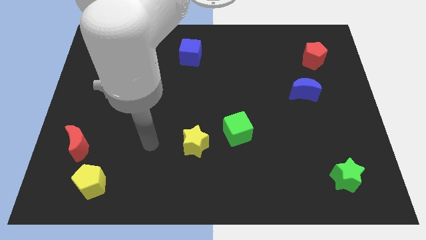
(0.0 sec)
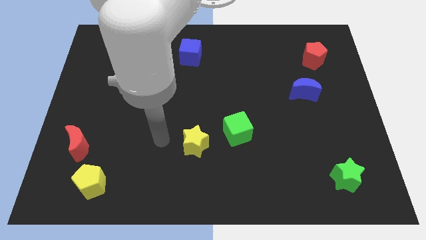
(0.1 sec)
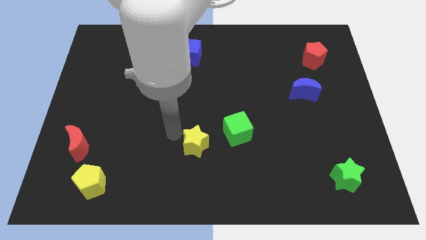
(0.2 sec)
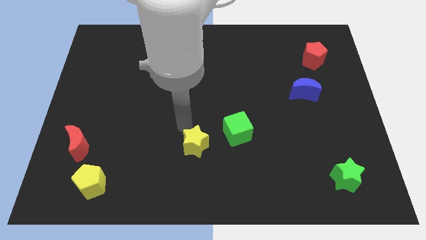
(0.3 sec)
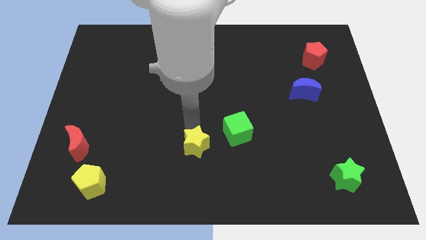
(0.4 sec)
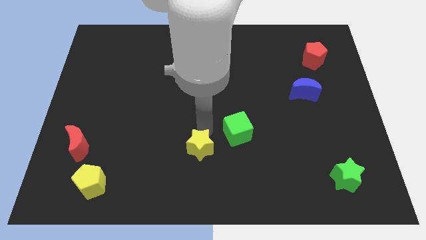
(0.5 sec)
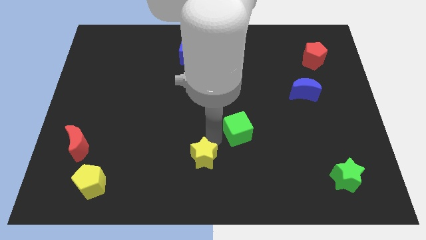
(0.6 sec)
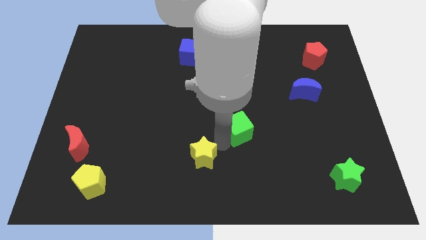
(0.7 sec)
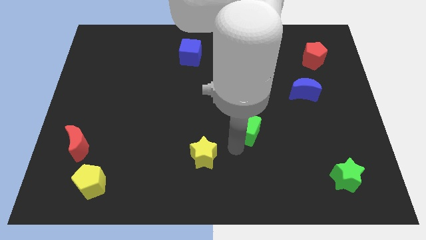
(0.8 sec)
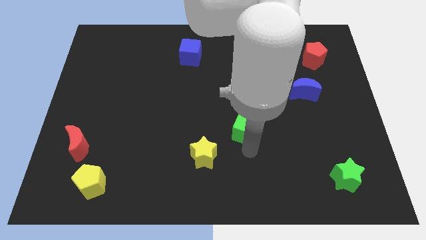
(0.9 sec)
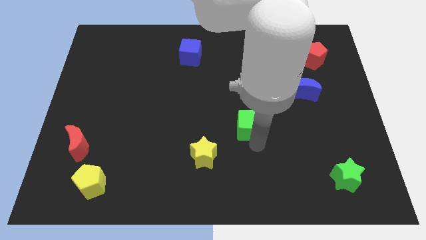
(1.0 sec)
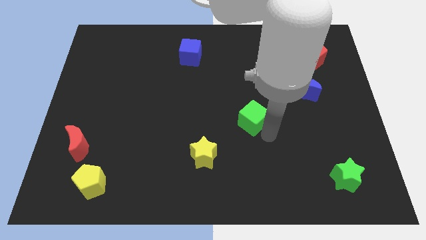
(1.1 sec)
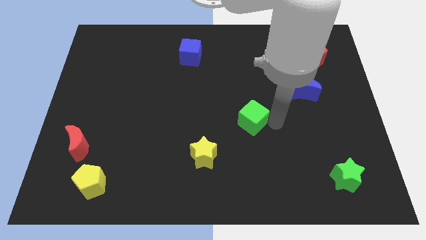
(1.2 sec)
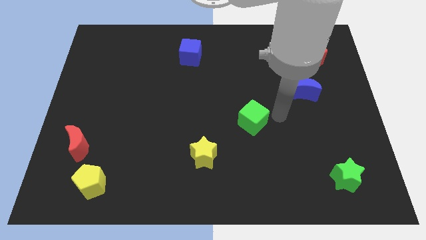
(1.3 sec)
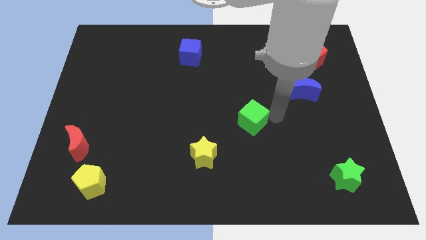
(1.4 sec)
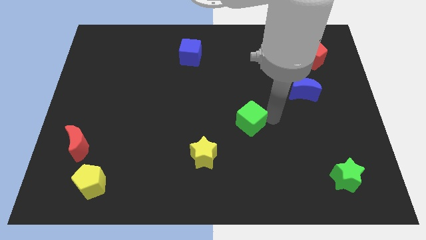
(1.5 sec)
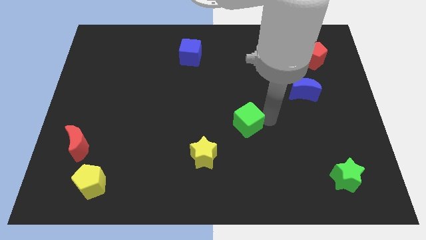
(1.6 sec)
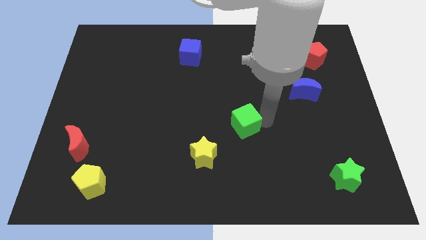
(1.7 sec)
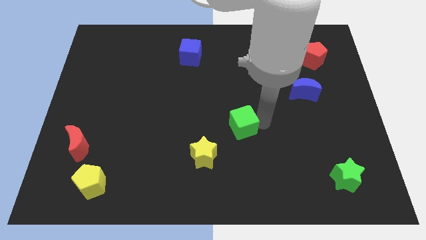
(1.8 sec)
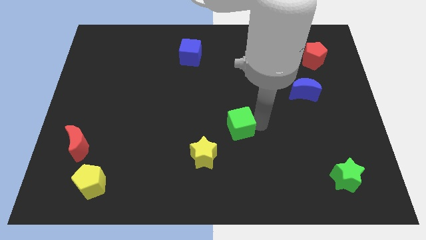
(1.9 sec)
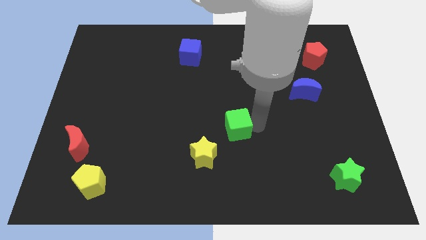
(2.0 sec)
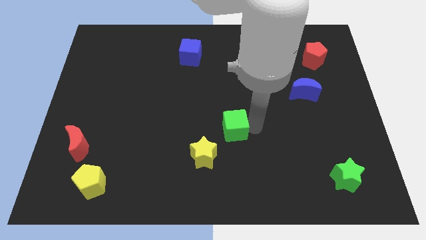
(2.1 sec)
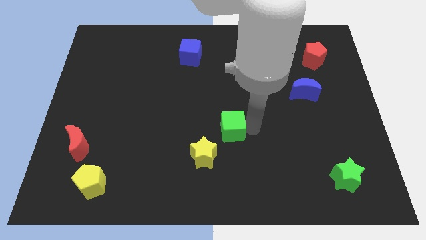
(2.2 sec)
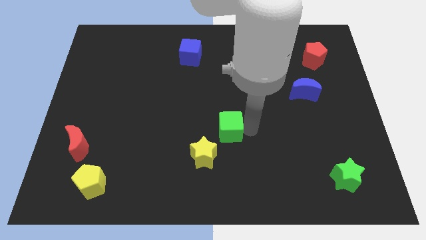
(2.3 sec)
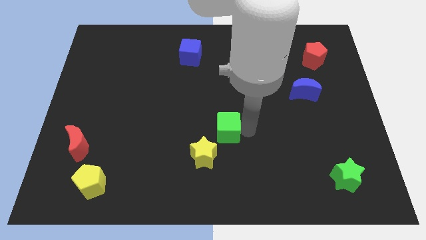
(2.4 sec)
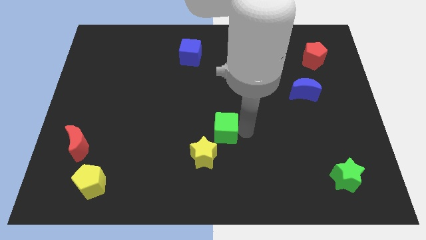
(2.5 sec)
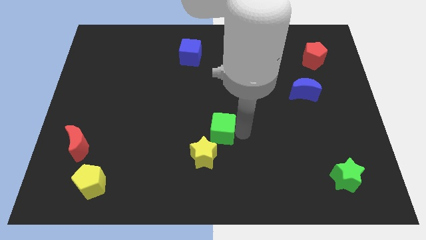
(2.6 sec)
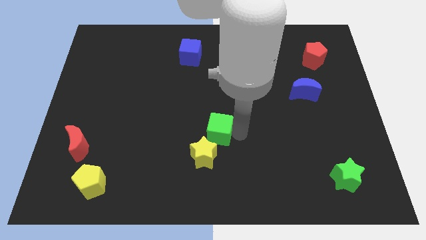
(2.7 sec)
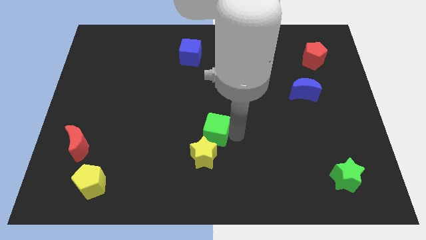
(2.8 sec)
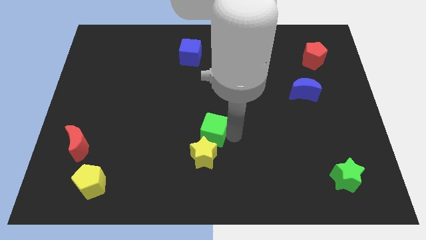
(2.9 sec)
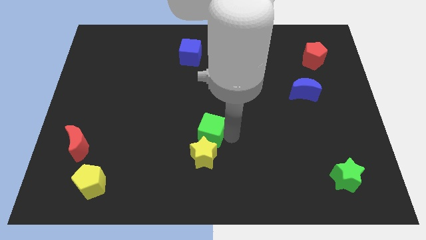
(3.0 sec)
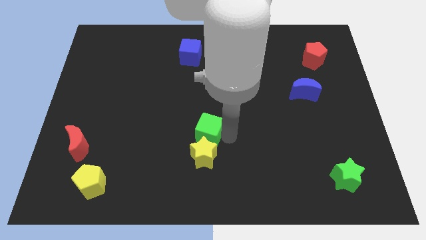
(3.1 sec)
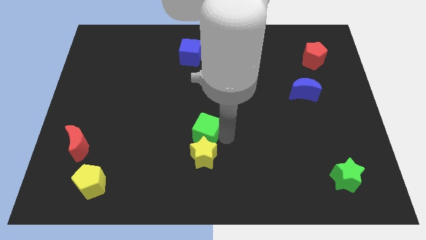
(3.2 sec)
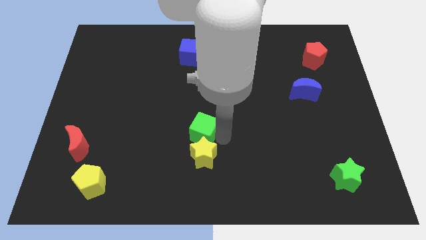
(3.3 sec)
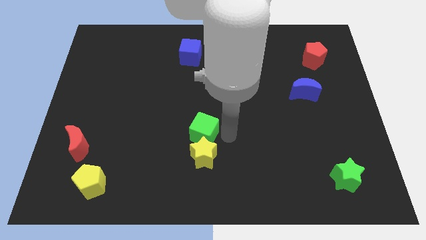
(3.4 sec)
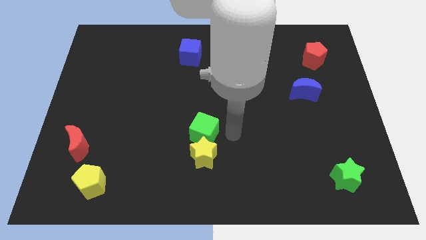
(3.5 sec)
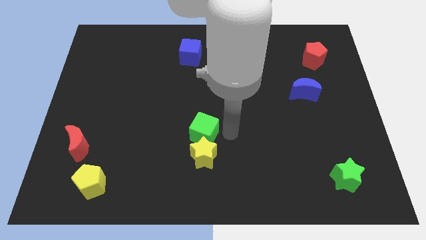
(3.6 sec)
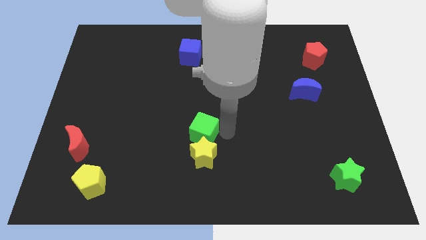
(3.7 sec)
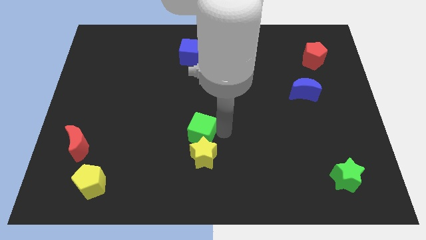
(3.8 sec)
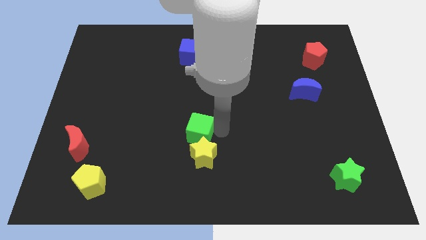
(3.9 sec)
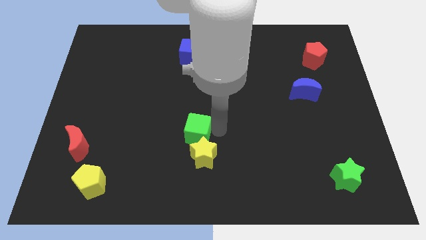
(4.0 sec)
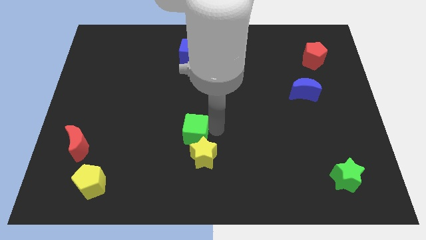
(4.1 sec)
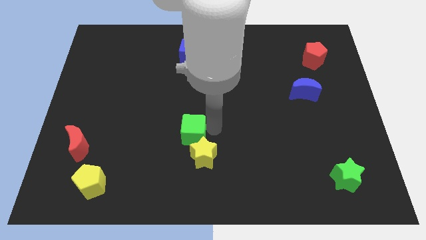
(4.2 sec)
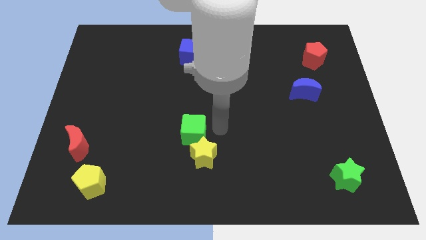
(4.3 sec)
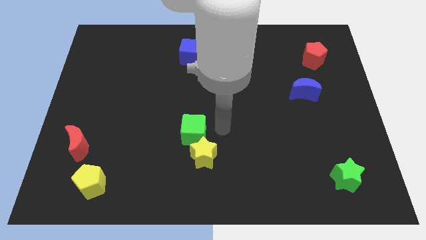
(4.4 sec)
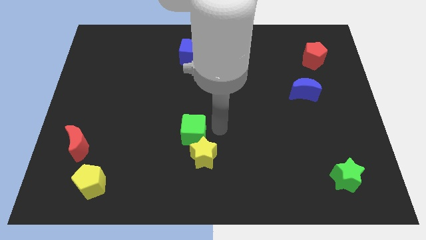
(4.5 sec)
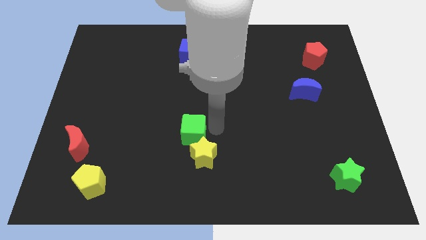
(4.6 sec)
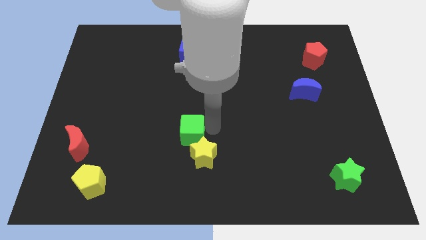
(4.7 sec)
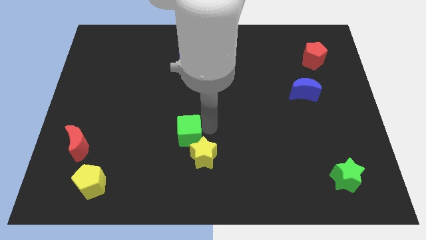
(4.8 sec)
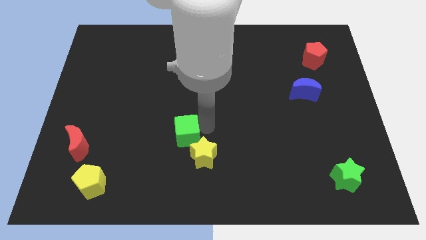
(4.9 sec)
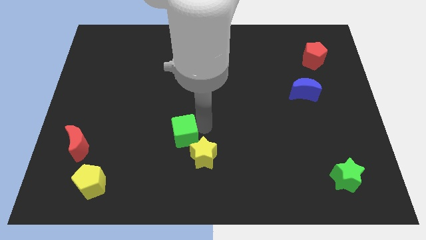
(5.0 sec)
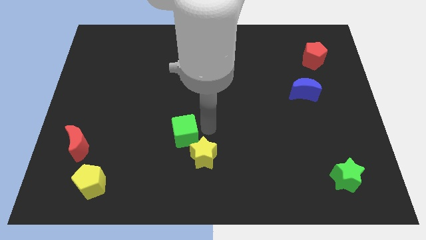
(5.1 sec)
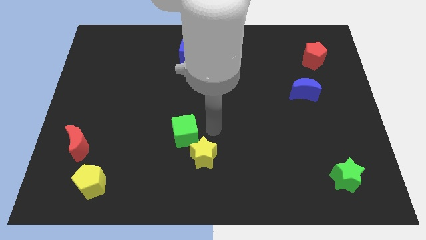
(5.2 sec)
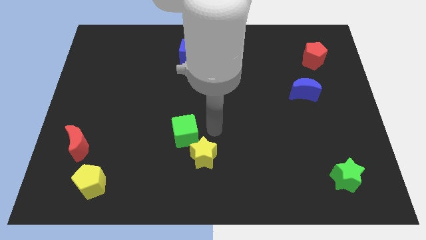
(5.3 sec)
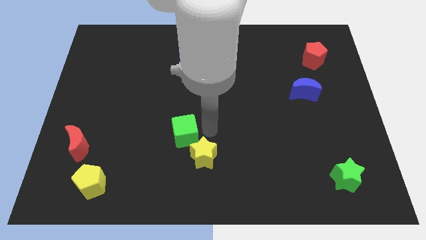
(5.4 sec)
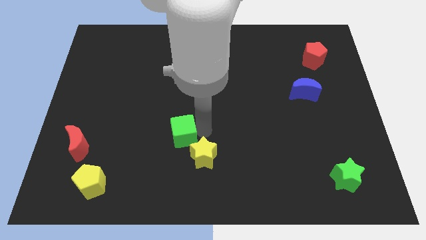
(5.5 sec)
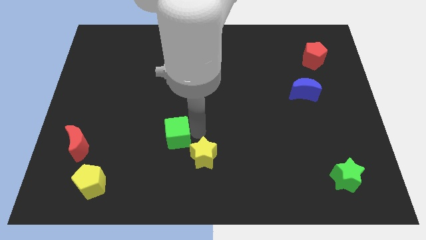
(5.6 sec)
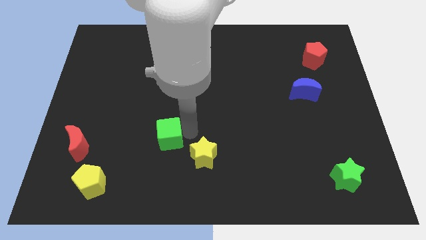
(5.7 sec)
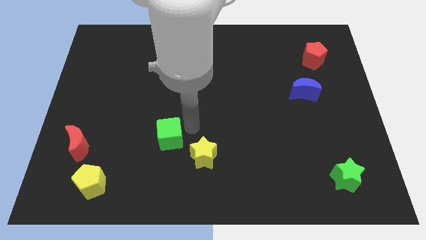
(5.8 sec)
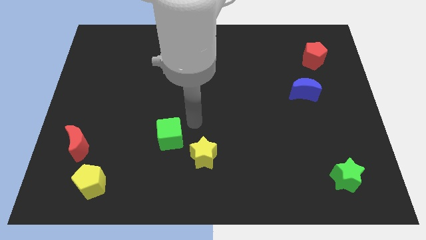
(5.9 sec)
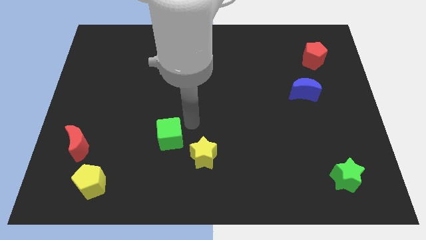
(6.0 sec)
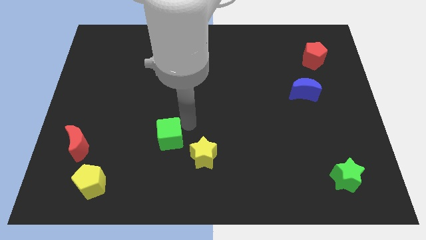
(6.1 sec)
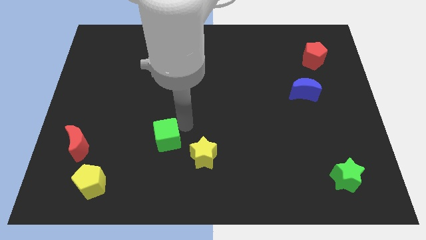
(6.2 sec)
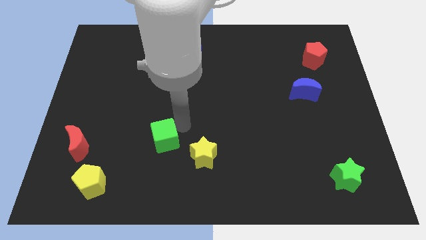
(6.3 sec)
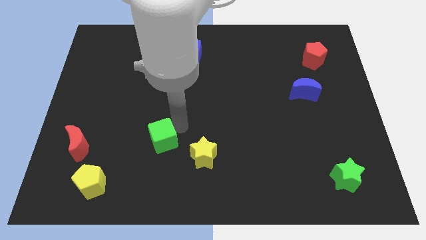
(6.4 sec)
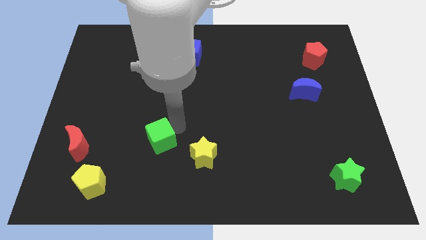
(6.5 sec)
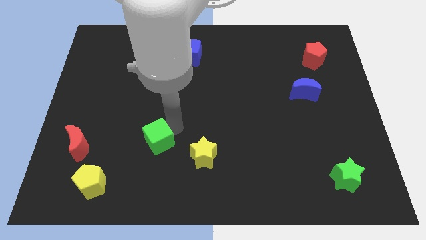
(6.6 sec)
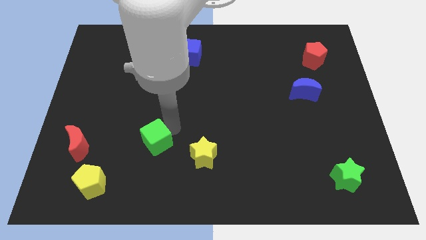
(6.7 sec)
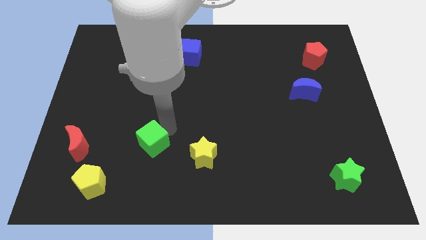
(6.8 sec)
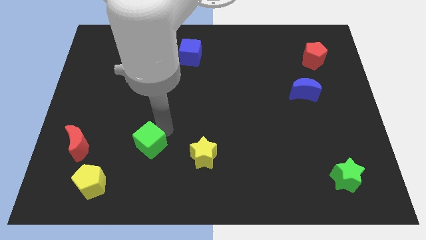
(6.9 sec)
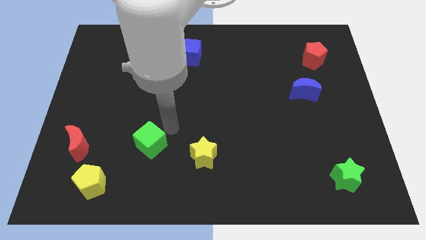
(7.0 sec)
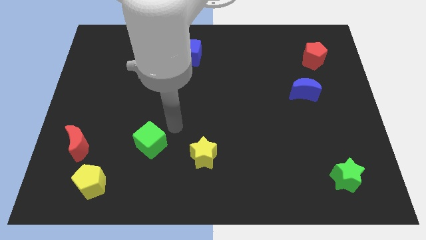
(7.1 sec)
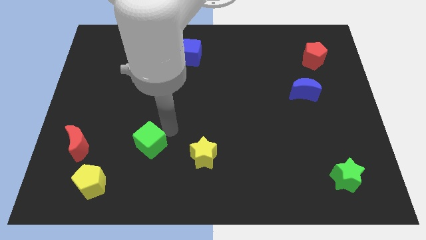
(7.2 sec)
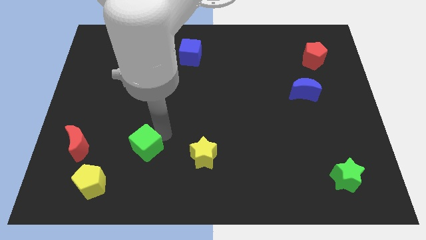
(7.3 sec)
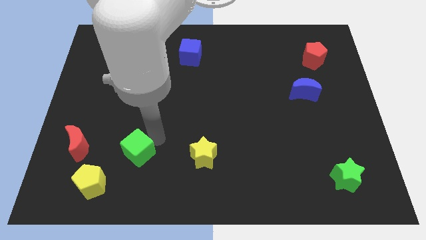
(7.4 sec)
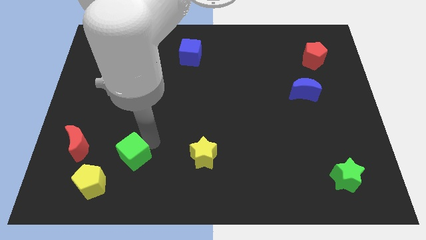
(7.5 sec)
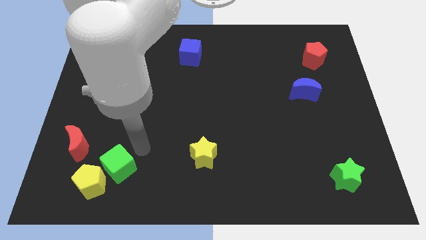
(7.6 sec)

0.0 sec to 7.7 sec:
put the green cube next to the yellow pentagon

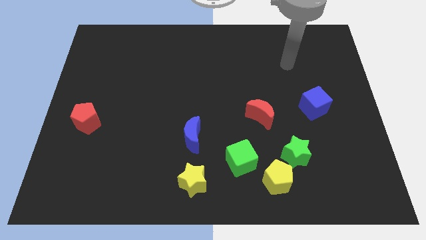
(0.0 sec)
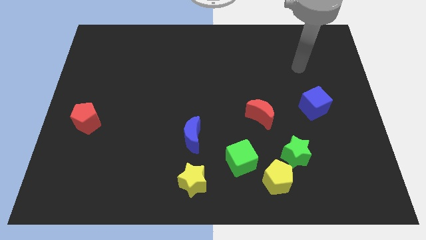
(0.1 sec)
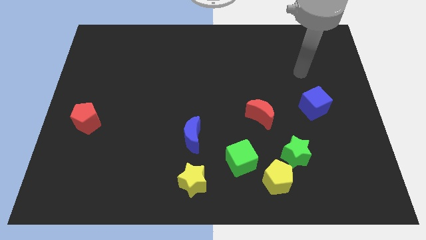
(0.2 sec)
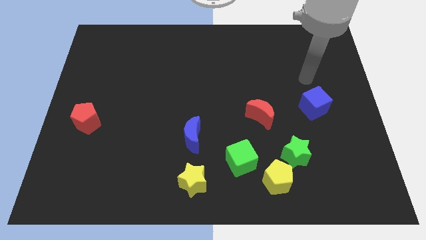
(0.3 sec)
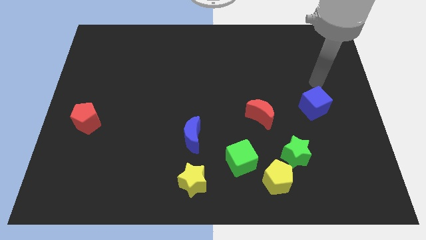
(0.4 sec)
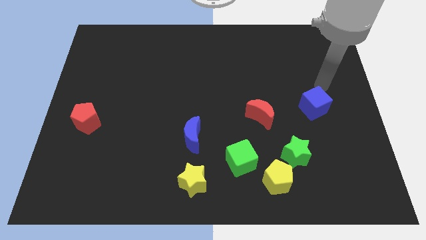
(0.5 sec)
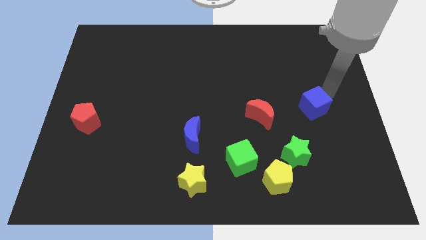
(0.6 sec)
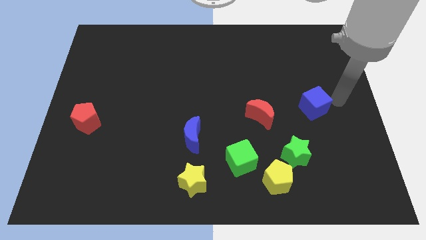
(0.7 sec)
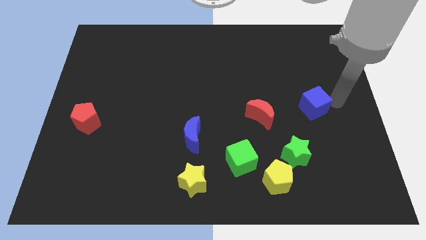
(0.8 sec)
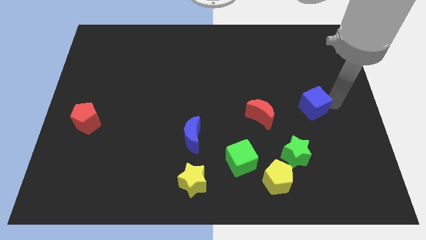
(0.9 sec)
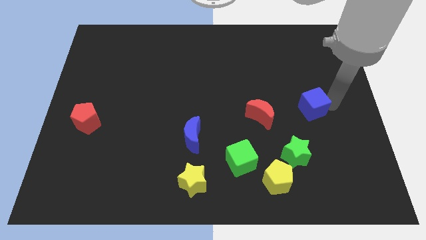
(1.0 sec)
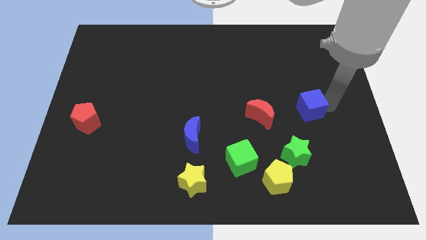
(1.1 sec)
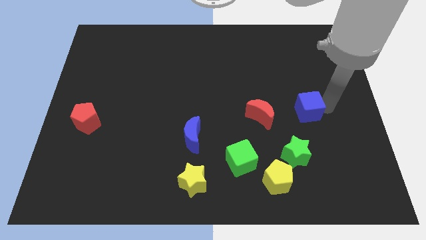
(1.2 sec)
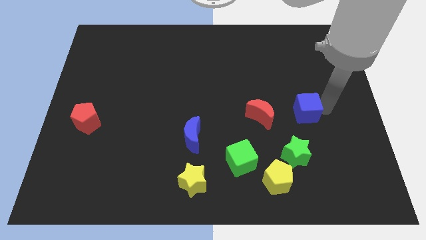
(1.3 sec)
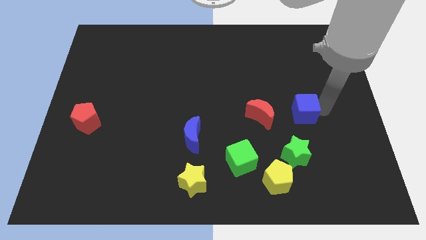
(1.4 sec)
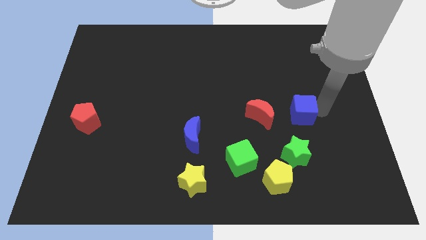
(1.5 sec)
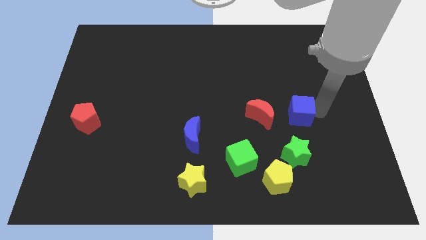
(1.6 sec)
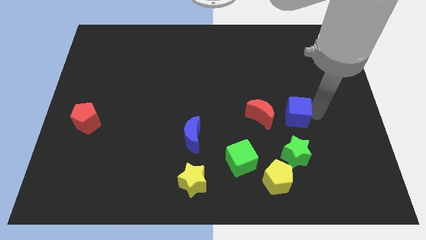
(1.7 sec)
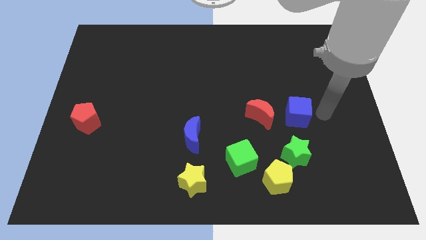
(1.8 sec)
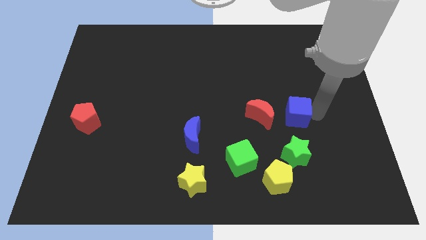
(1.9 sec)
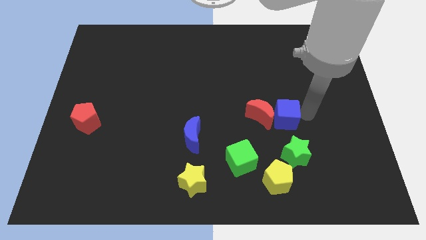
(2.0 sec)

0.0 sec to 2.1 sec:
put the blue cube next to the red moon
